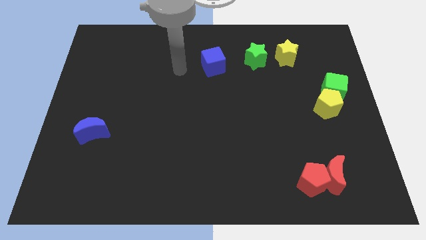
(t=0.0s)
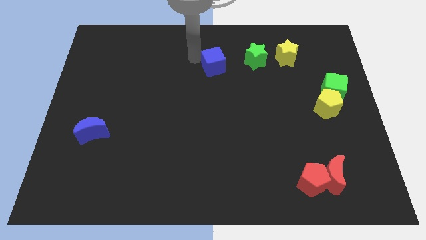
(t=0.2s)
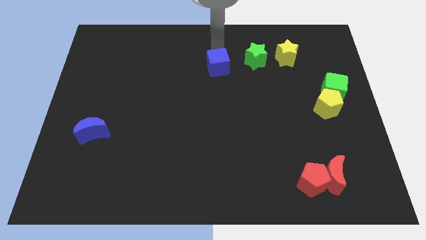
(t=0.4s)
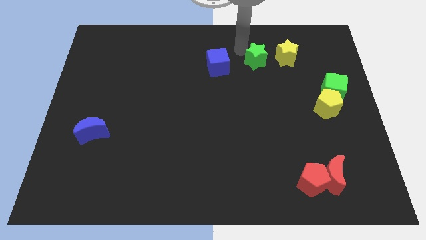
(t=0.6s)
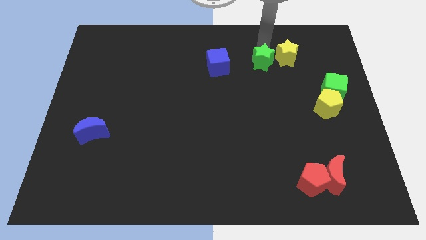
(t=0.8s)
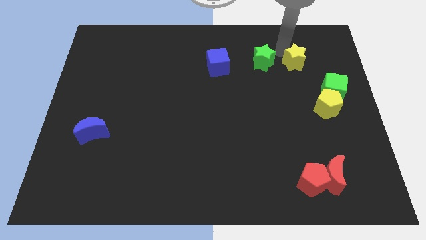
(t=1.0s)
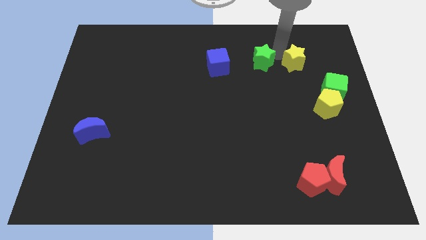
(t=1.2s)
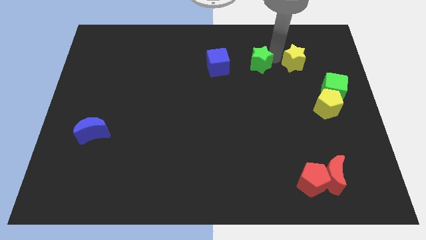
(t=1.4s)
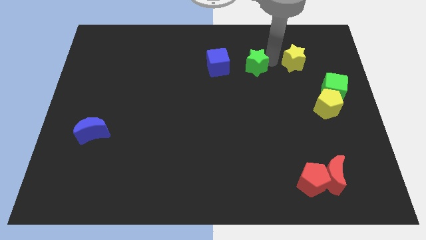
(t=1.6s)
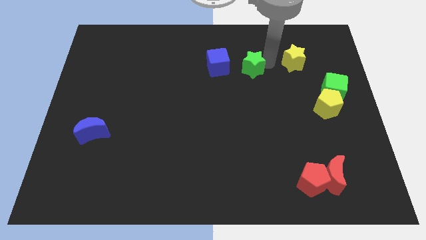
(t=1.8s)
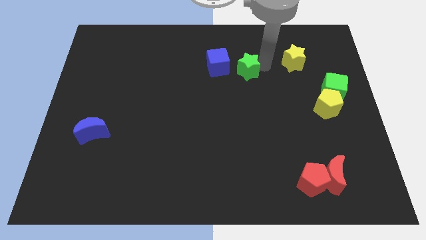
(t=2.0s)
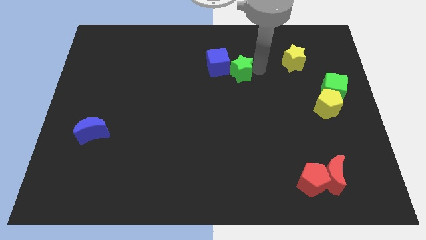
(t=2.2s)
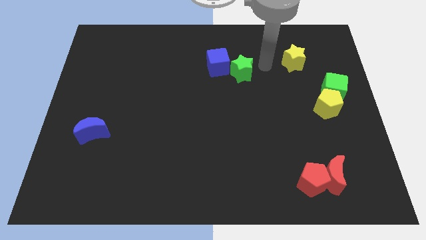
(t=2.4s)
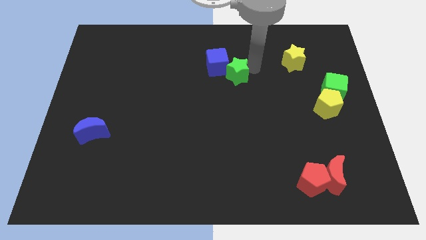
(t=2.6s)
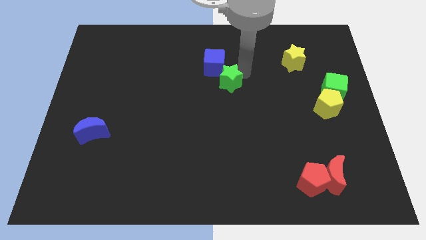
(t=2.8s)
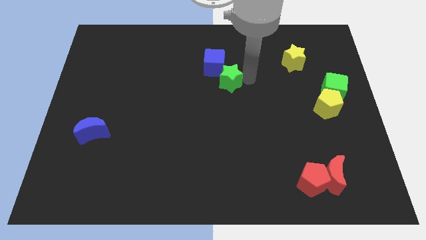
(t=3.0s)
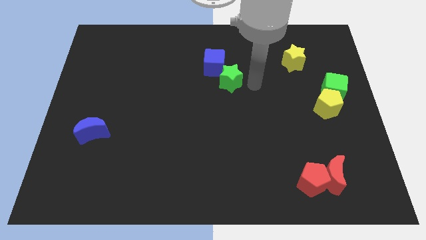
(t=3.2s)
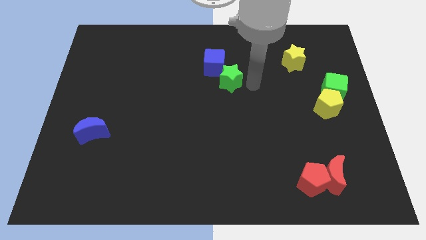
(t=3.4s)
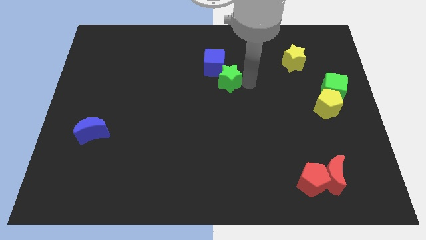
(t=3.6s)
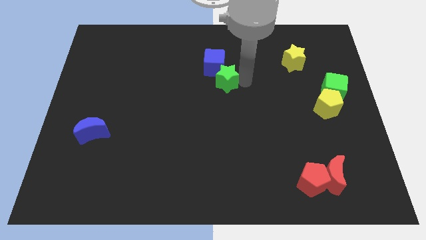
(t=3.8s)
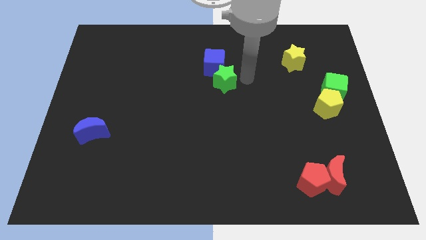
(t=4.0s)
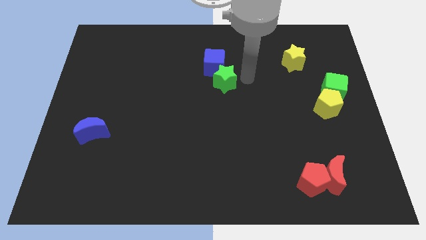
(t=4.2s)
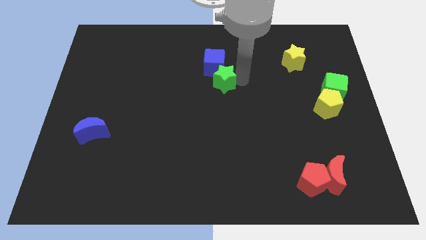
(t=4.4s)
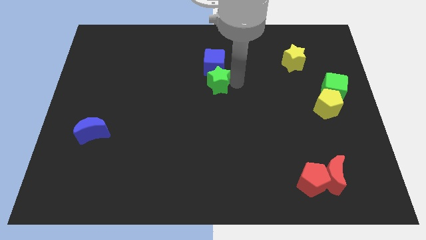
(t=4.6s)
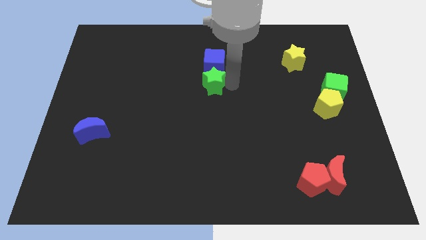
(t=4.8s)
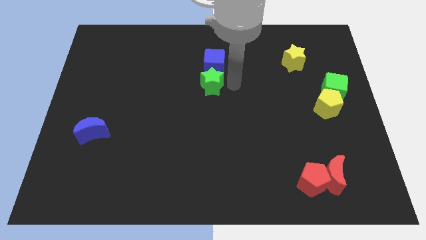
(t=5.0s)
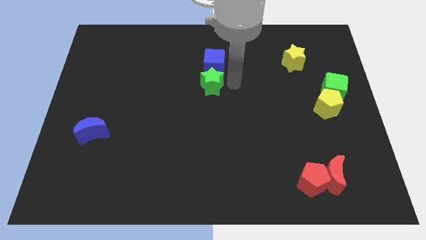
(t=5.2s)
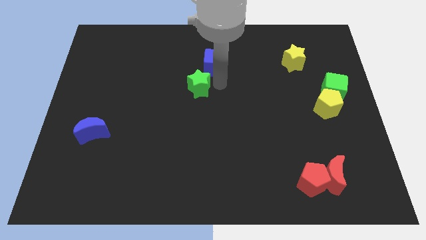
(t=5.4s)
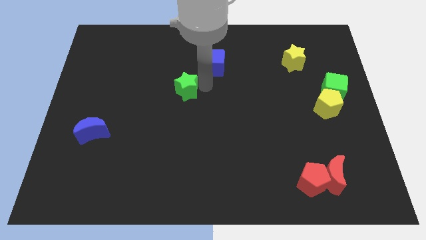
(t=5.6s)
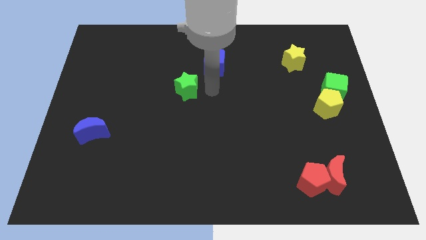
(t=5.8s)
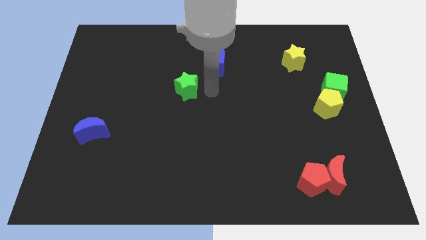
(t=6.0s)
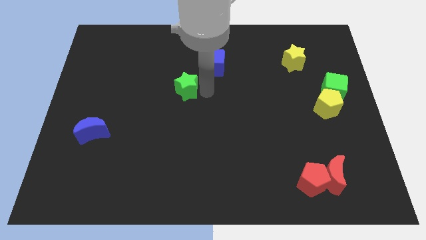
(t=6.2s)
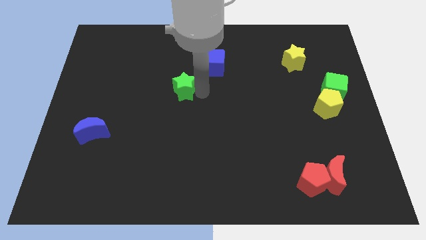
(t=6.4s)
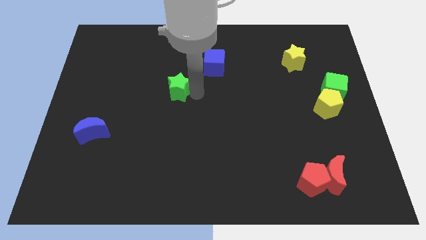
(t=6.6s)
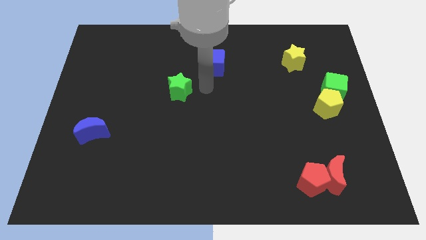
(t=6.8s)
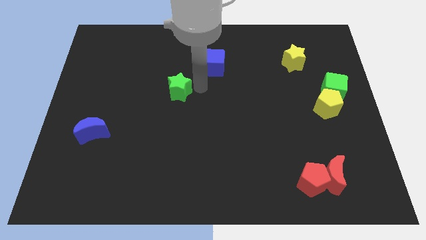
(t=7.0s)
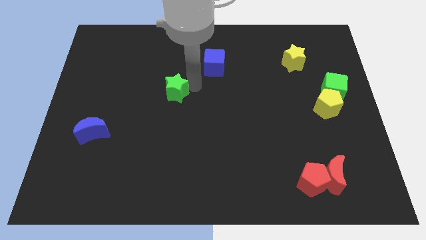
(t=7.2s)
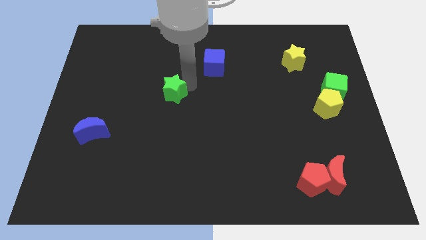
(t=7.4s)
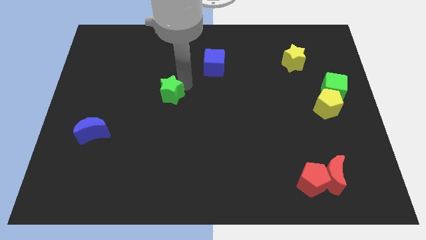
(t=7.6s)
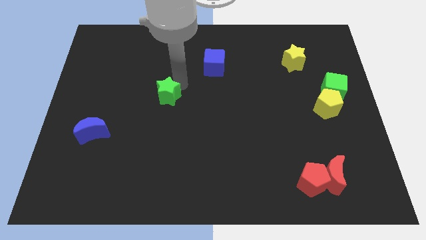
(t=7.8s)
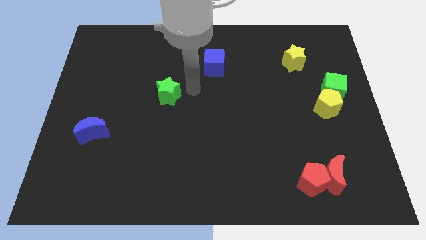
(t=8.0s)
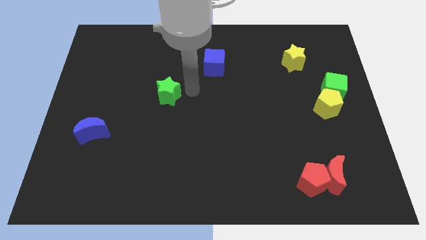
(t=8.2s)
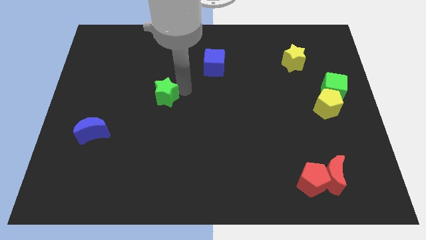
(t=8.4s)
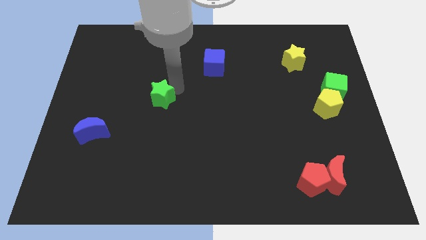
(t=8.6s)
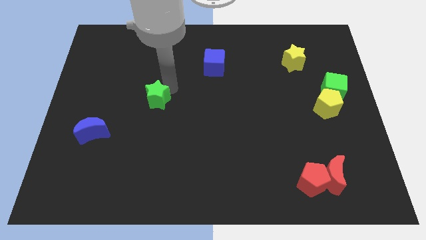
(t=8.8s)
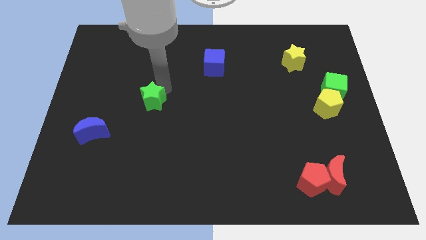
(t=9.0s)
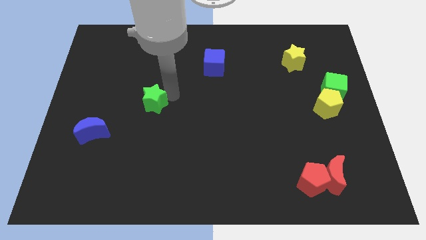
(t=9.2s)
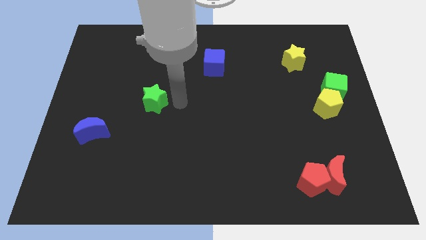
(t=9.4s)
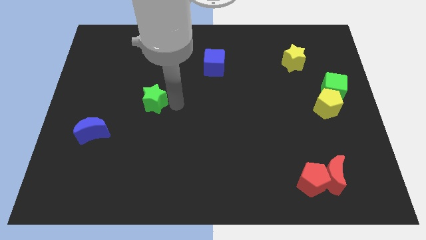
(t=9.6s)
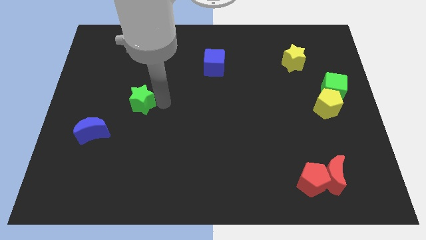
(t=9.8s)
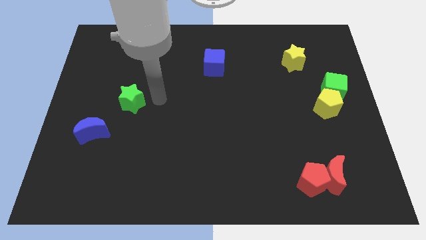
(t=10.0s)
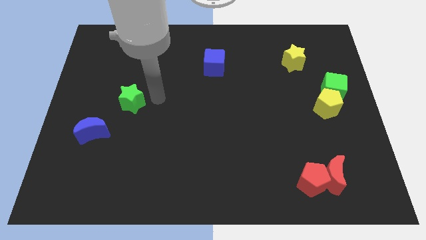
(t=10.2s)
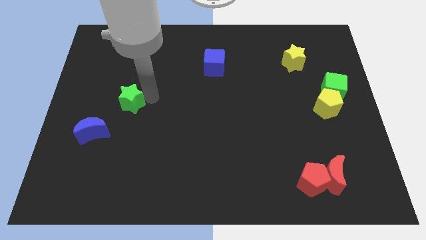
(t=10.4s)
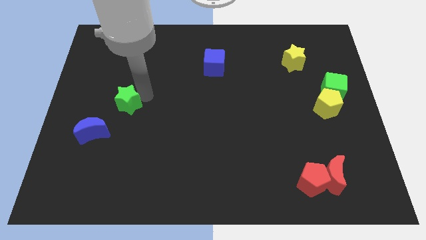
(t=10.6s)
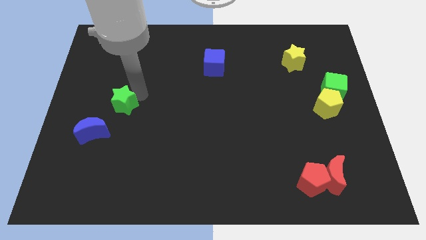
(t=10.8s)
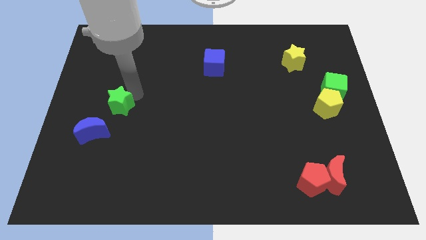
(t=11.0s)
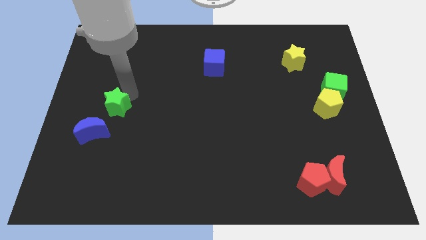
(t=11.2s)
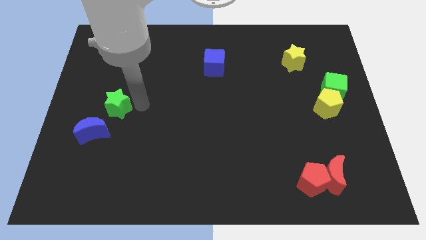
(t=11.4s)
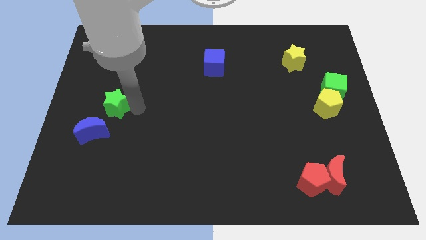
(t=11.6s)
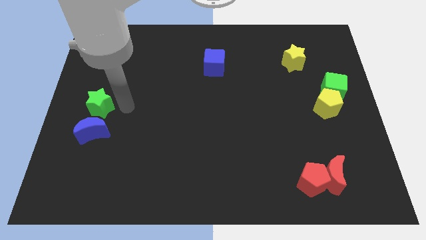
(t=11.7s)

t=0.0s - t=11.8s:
move the green star to the left side of the board

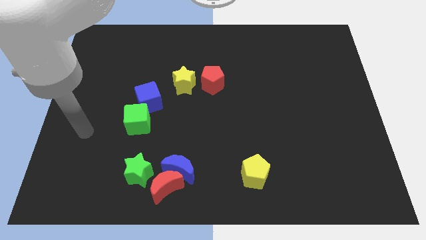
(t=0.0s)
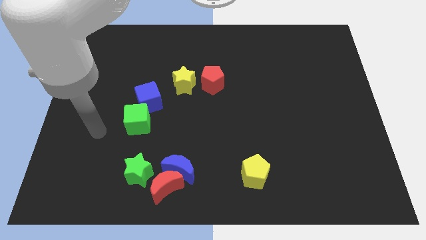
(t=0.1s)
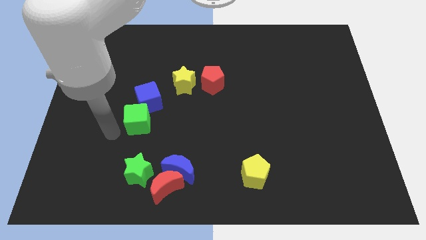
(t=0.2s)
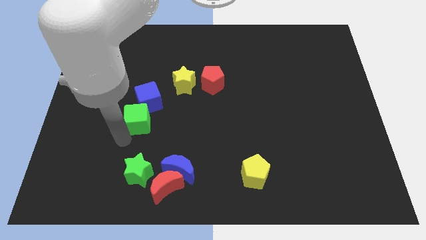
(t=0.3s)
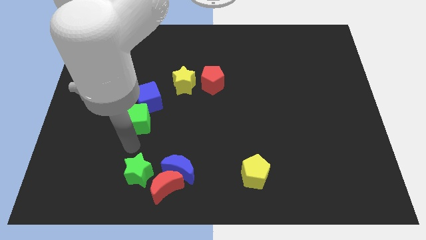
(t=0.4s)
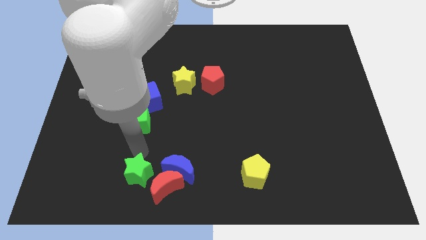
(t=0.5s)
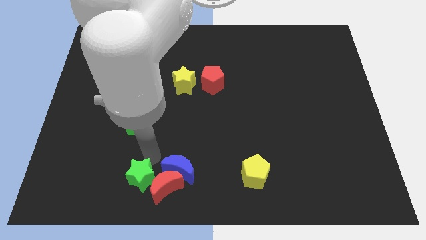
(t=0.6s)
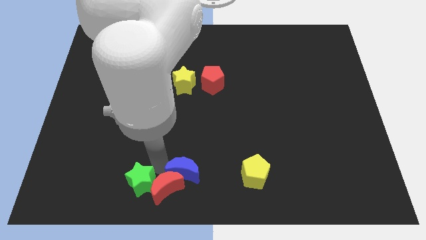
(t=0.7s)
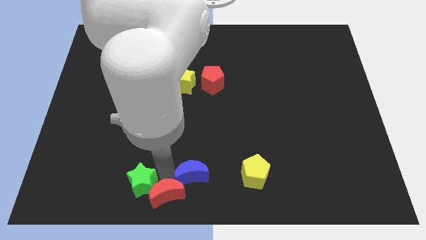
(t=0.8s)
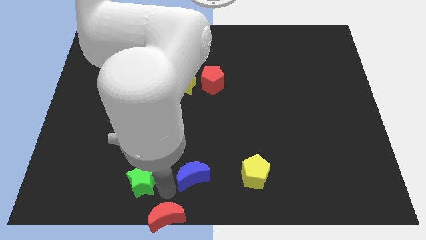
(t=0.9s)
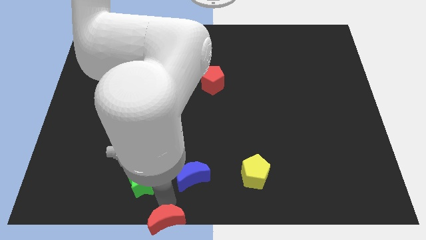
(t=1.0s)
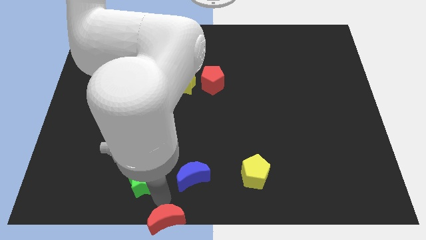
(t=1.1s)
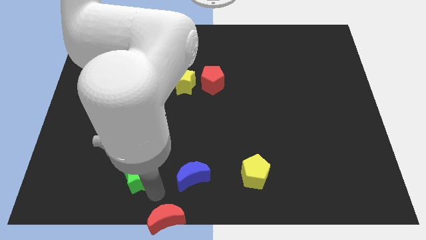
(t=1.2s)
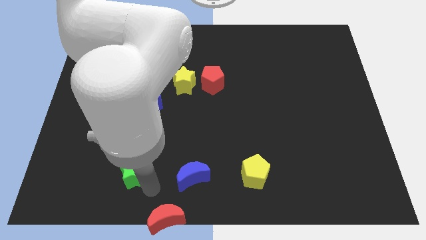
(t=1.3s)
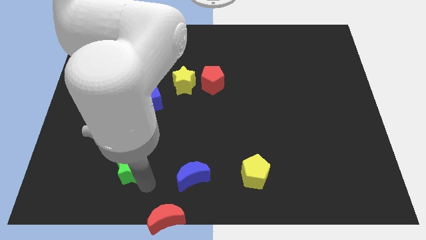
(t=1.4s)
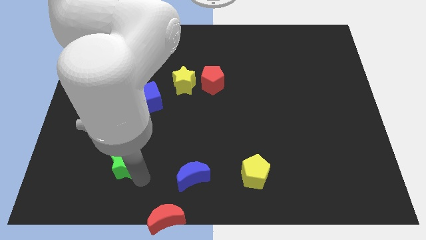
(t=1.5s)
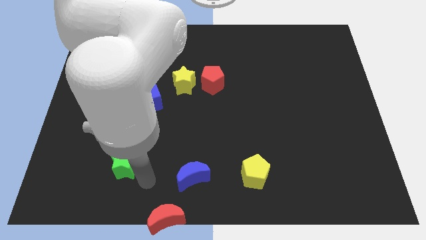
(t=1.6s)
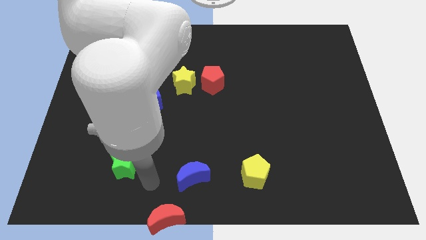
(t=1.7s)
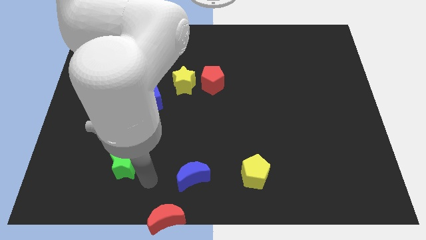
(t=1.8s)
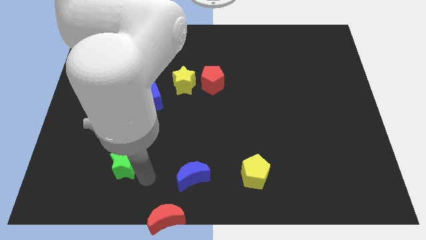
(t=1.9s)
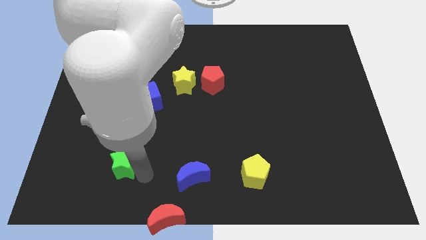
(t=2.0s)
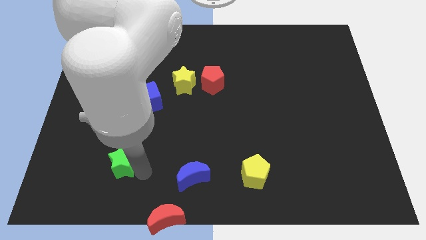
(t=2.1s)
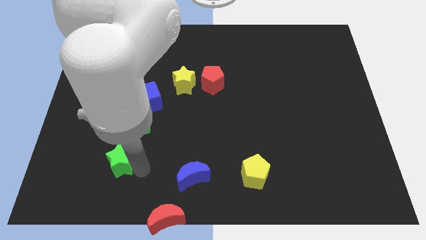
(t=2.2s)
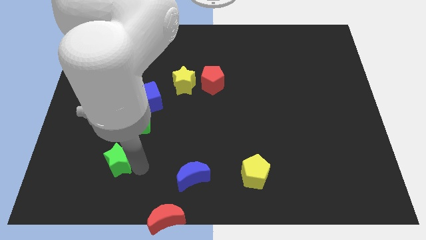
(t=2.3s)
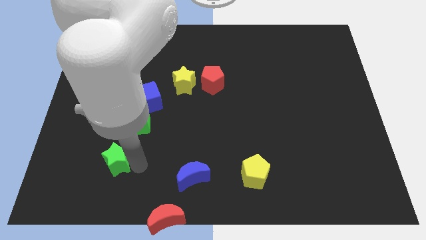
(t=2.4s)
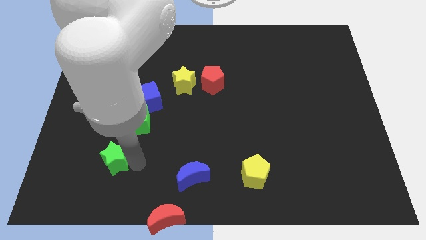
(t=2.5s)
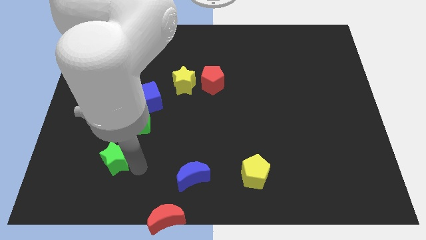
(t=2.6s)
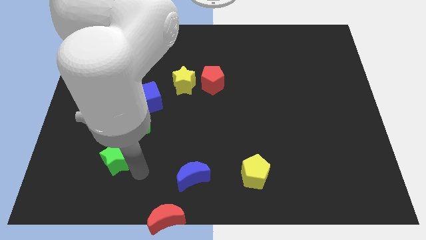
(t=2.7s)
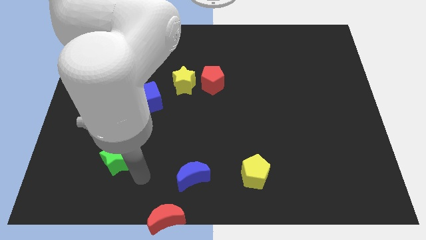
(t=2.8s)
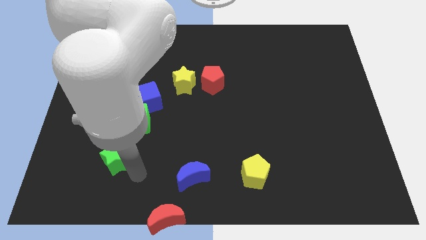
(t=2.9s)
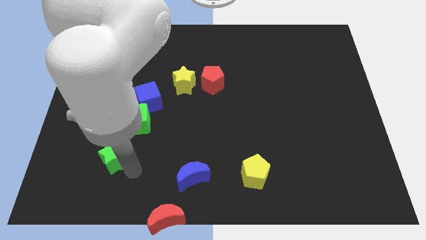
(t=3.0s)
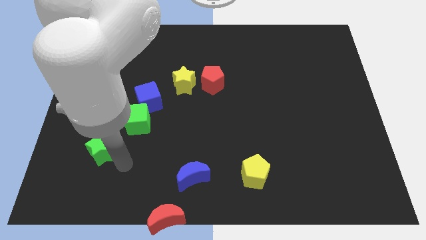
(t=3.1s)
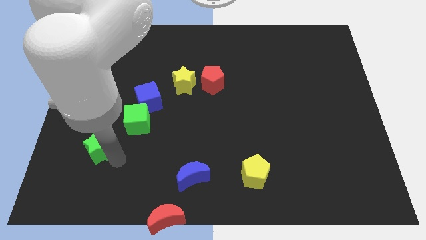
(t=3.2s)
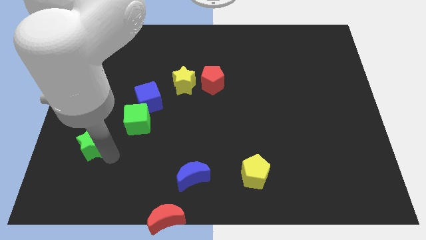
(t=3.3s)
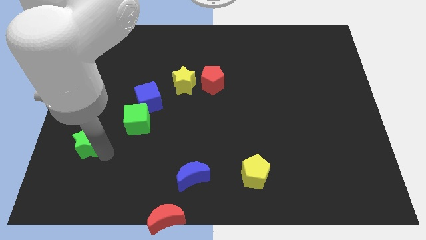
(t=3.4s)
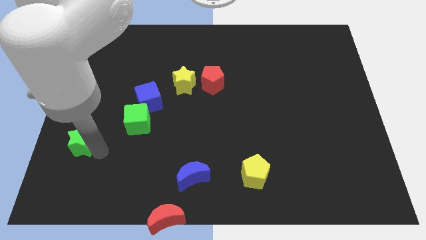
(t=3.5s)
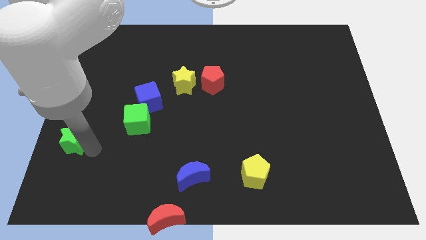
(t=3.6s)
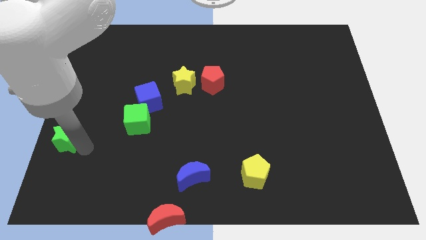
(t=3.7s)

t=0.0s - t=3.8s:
put the green star to the left side of the board
